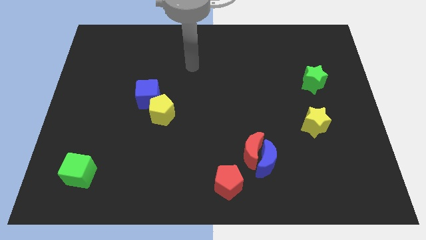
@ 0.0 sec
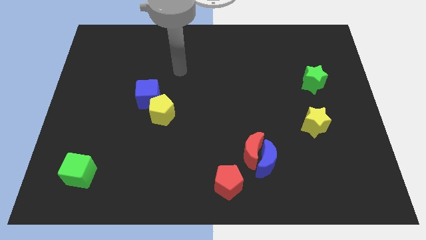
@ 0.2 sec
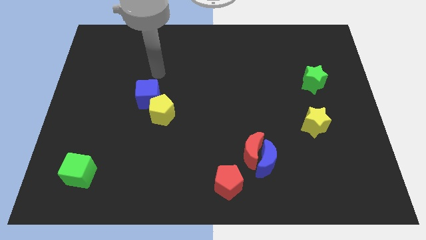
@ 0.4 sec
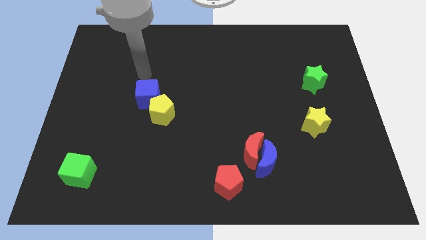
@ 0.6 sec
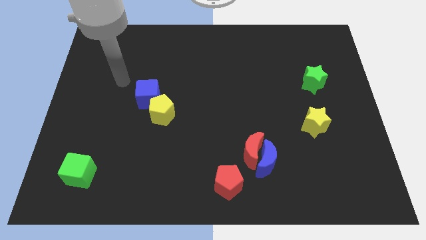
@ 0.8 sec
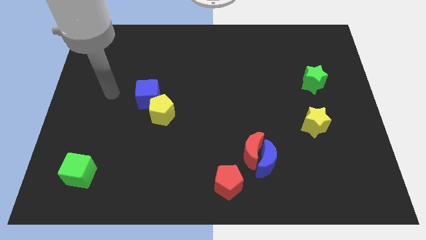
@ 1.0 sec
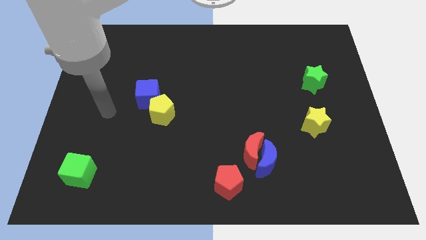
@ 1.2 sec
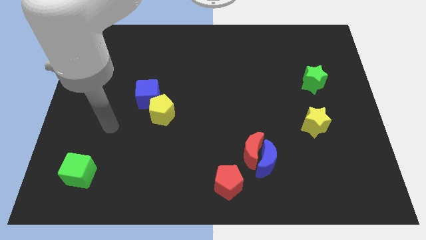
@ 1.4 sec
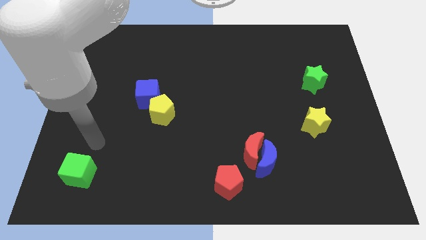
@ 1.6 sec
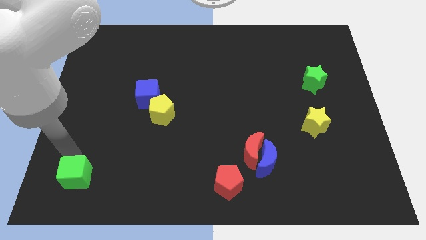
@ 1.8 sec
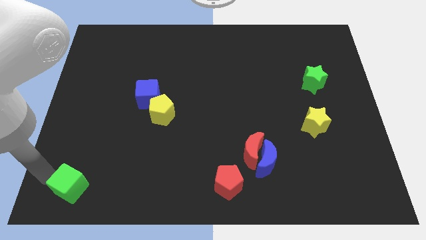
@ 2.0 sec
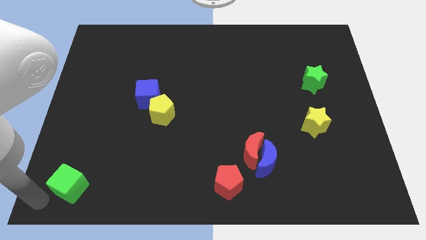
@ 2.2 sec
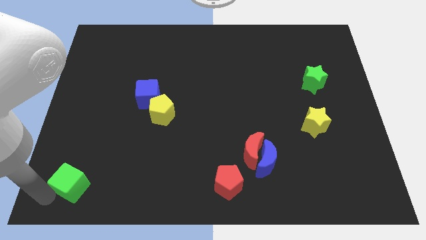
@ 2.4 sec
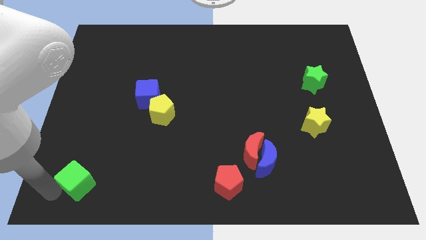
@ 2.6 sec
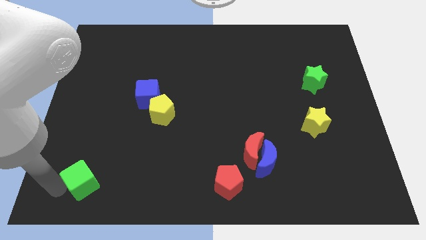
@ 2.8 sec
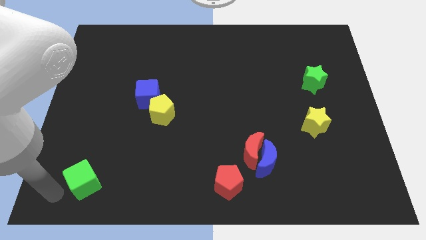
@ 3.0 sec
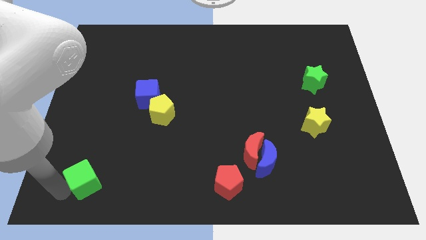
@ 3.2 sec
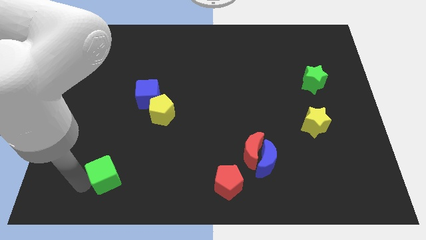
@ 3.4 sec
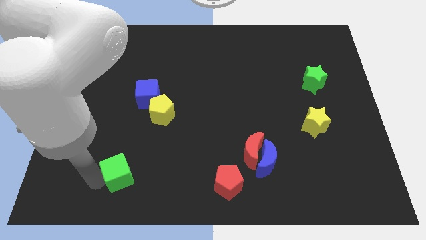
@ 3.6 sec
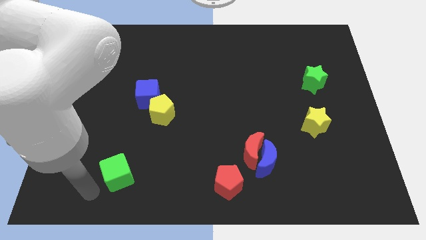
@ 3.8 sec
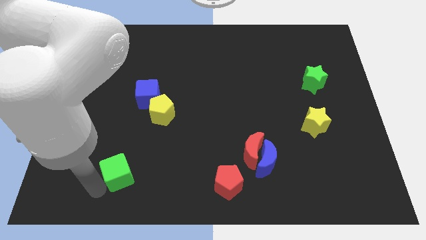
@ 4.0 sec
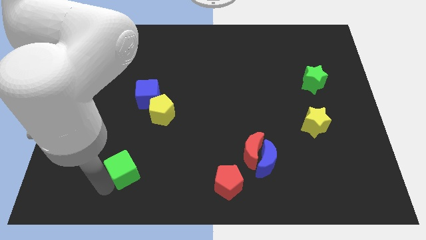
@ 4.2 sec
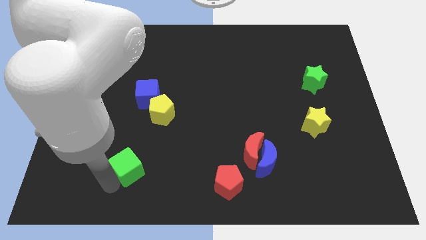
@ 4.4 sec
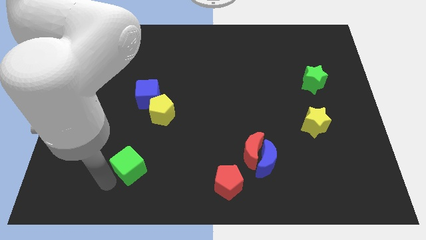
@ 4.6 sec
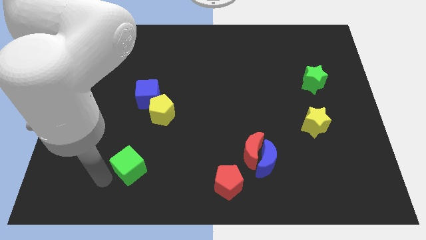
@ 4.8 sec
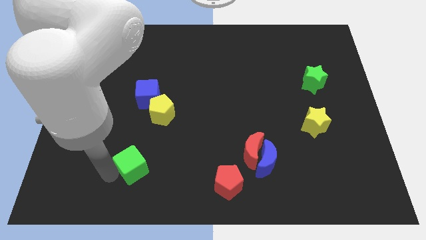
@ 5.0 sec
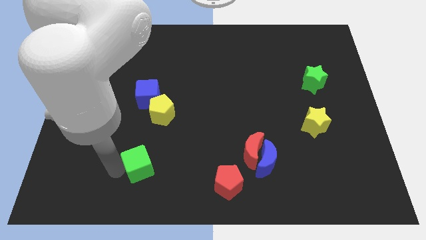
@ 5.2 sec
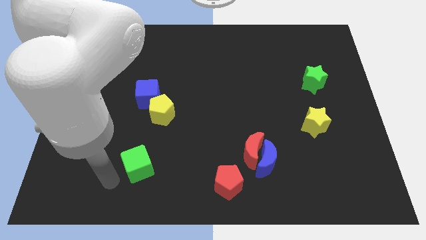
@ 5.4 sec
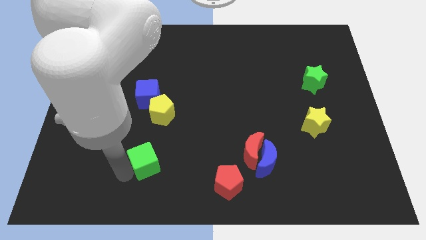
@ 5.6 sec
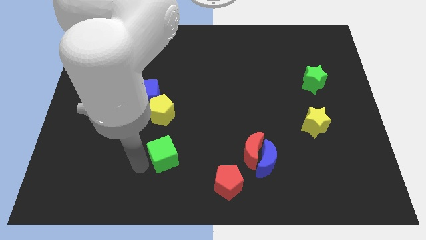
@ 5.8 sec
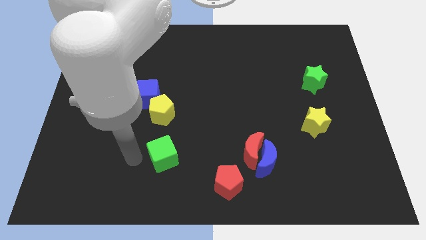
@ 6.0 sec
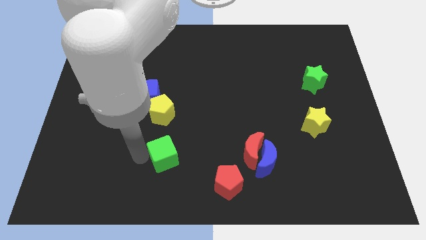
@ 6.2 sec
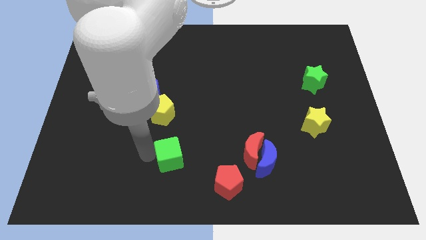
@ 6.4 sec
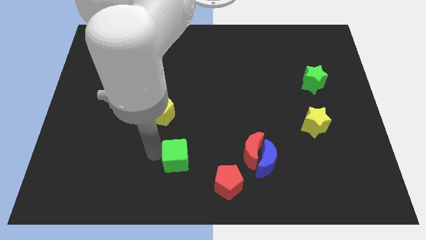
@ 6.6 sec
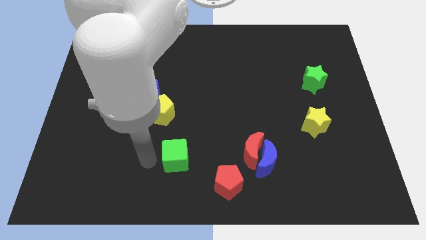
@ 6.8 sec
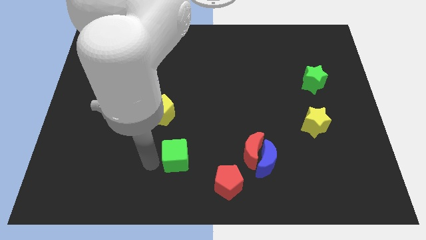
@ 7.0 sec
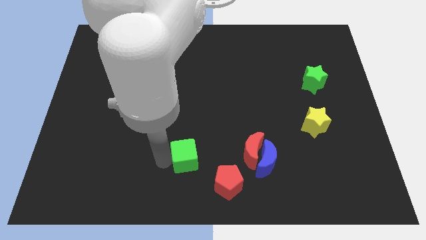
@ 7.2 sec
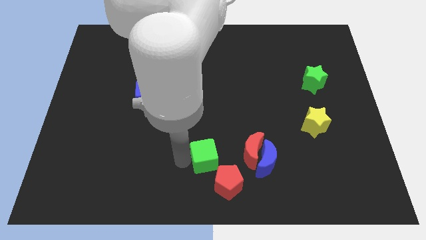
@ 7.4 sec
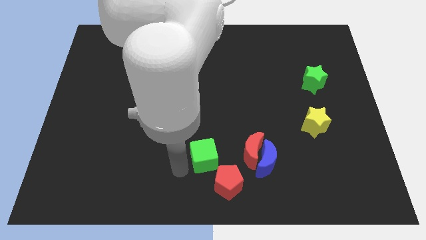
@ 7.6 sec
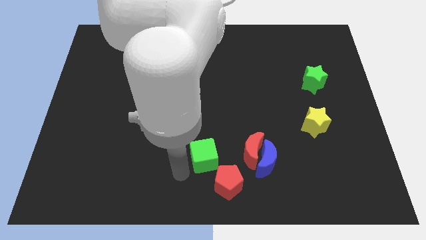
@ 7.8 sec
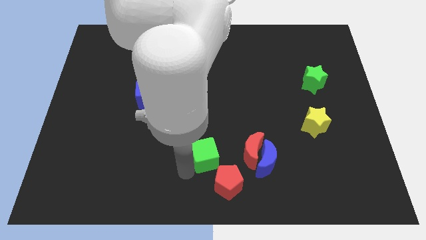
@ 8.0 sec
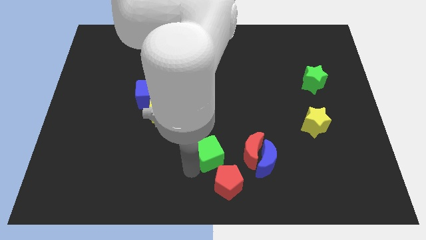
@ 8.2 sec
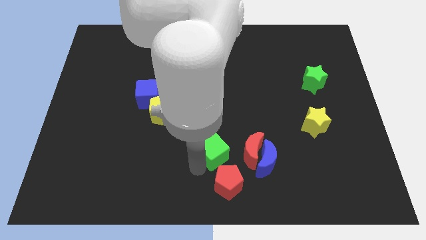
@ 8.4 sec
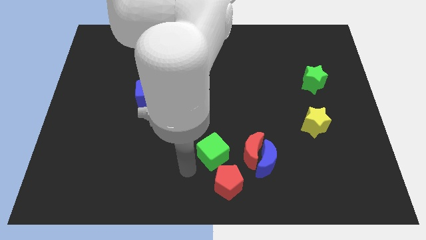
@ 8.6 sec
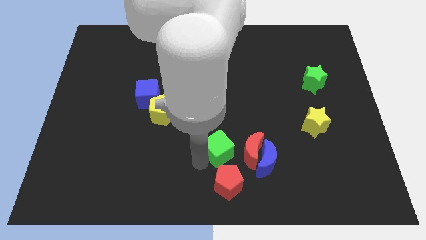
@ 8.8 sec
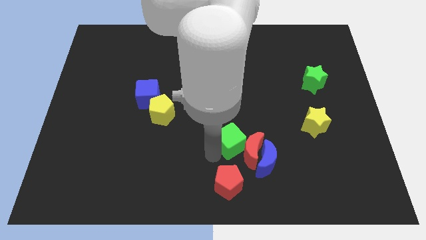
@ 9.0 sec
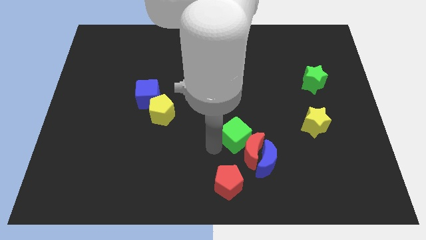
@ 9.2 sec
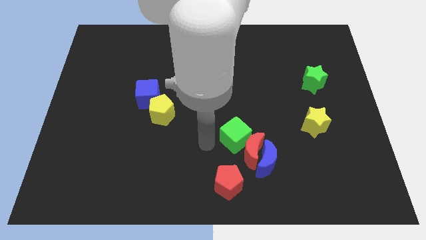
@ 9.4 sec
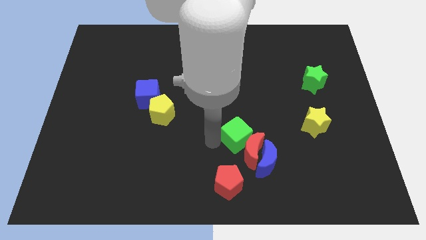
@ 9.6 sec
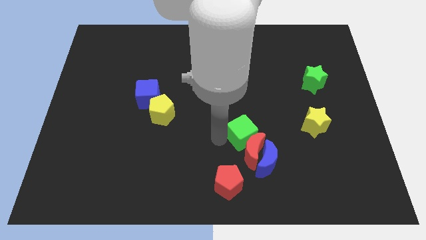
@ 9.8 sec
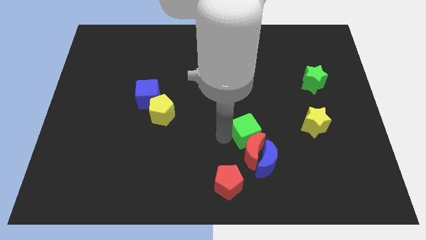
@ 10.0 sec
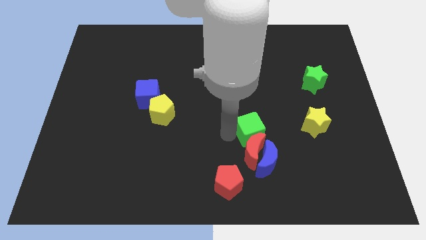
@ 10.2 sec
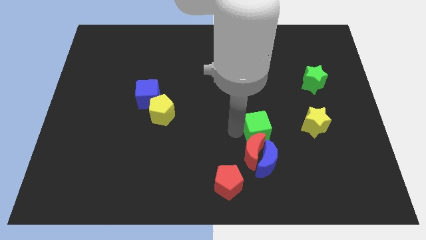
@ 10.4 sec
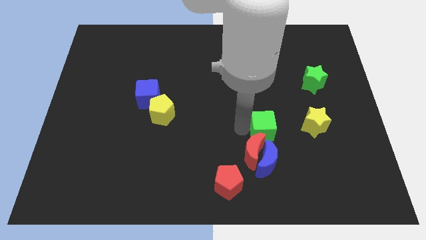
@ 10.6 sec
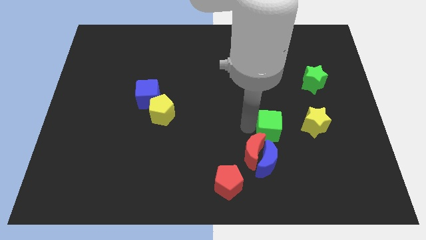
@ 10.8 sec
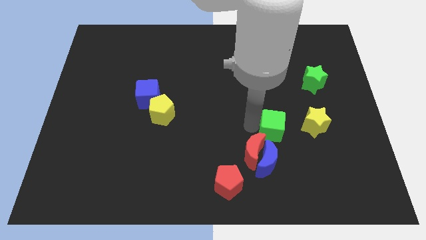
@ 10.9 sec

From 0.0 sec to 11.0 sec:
move the green cube to the top right of the blue moon

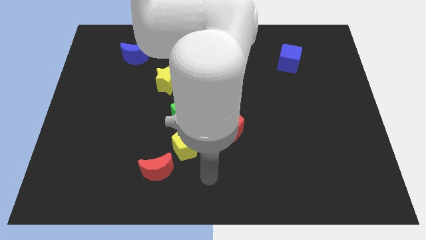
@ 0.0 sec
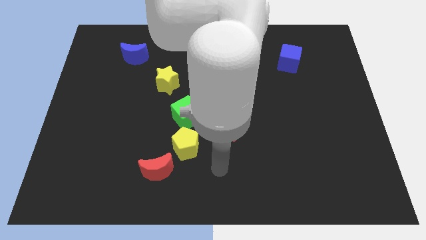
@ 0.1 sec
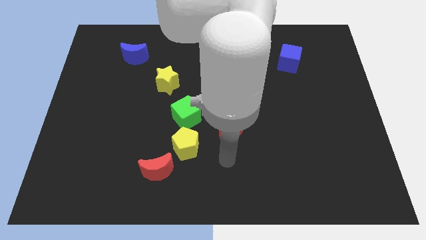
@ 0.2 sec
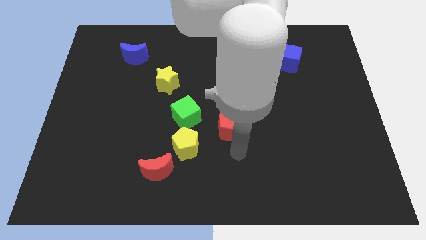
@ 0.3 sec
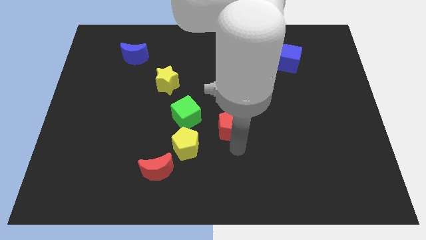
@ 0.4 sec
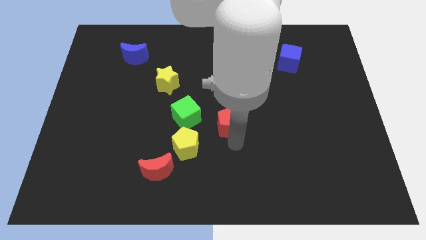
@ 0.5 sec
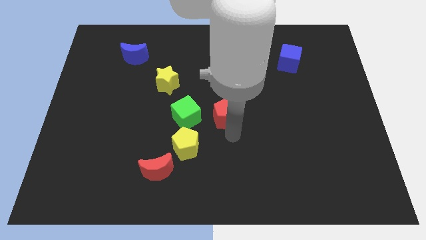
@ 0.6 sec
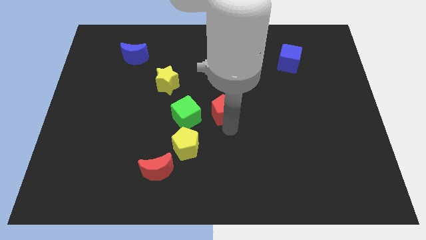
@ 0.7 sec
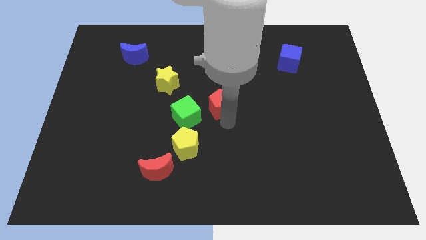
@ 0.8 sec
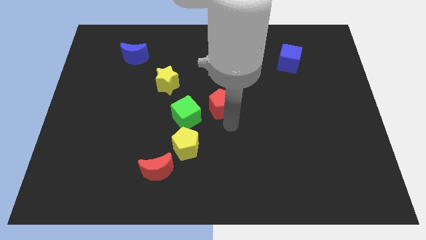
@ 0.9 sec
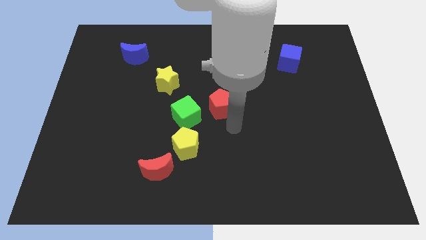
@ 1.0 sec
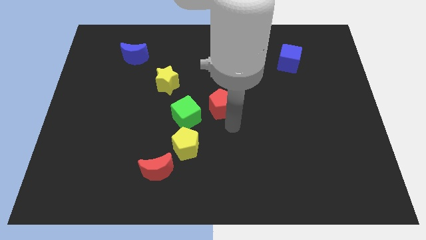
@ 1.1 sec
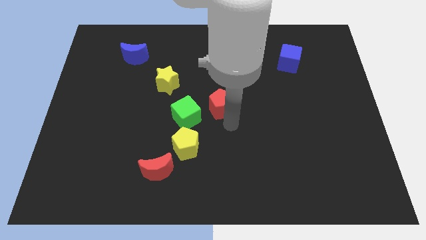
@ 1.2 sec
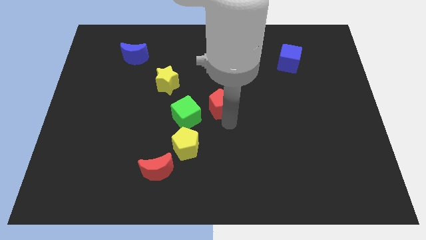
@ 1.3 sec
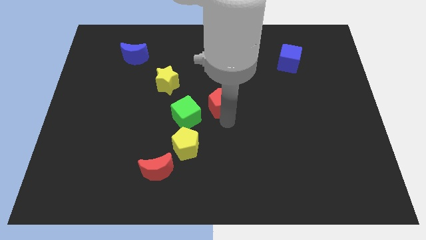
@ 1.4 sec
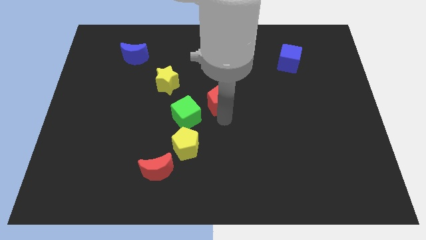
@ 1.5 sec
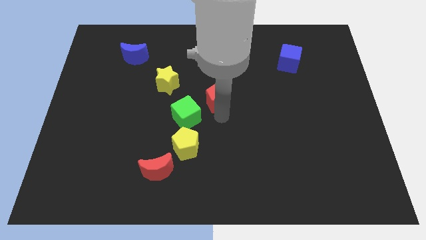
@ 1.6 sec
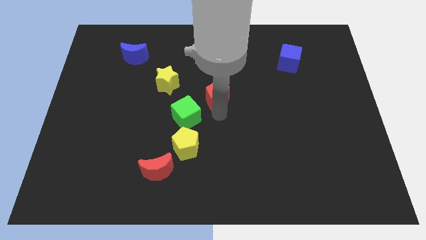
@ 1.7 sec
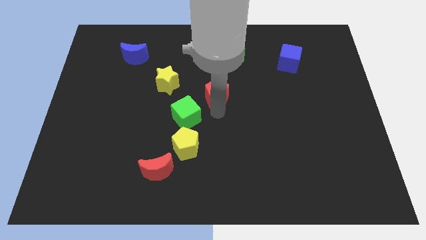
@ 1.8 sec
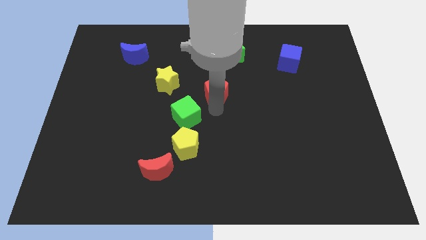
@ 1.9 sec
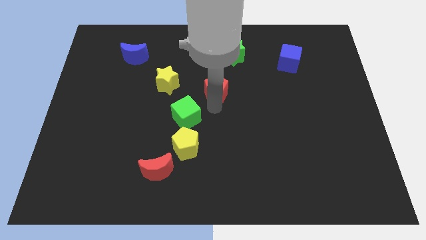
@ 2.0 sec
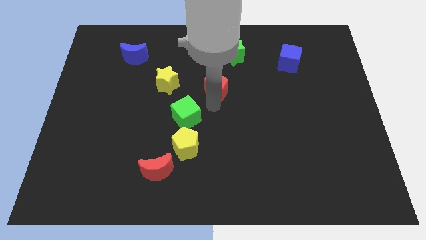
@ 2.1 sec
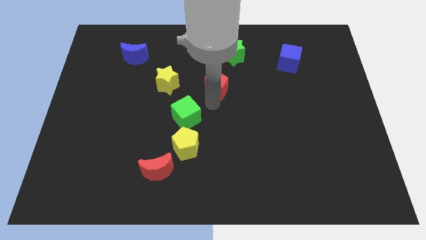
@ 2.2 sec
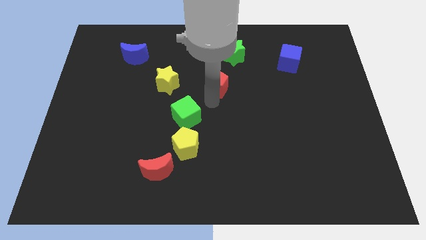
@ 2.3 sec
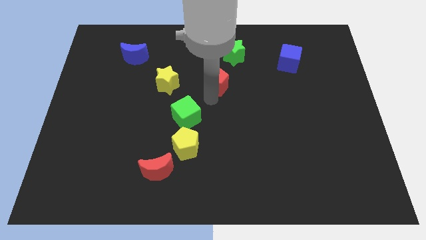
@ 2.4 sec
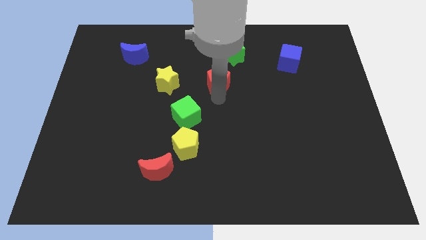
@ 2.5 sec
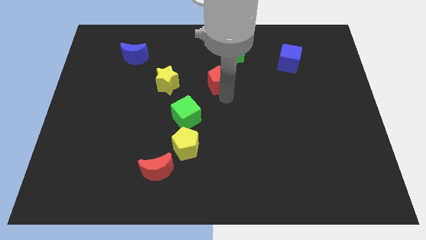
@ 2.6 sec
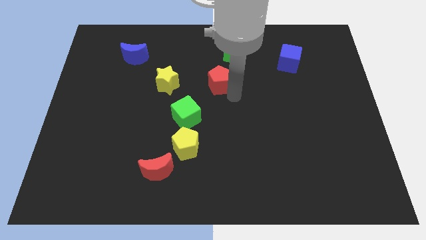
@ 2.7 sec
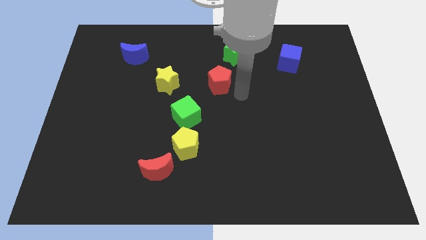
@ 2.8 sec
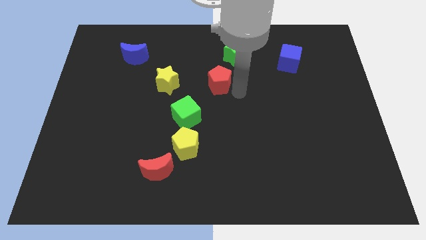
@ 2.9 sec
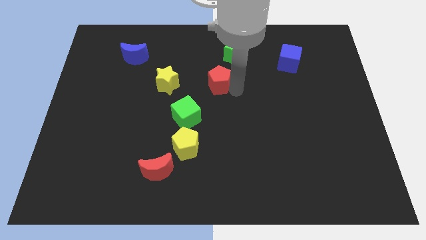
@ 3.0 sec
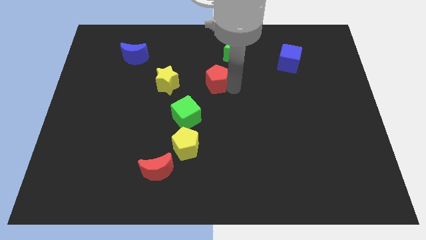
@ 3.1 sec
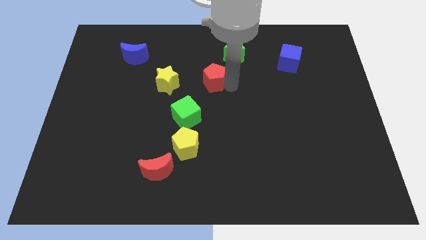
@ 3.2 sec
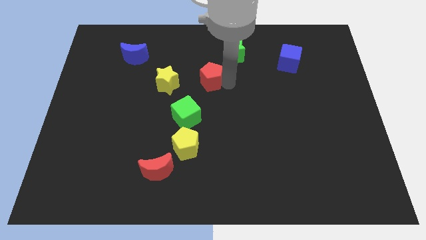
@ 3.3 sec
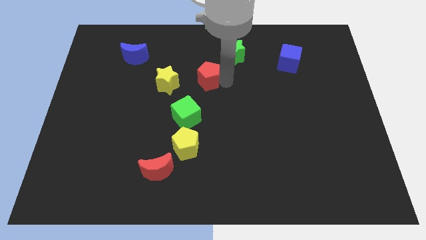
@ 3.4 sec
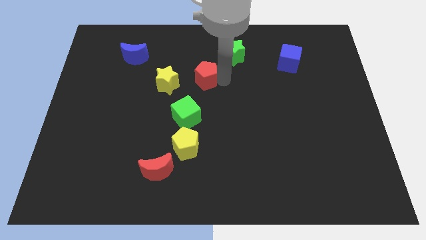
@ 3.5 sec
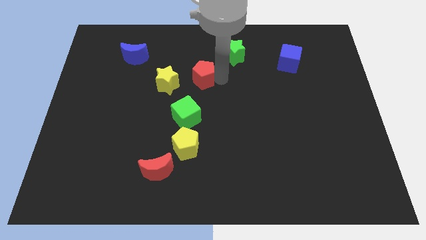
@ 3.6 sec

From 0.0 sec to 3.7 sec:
push the red pentagon to the top right side of the yellow star
